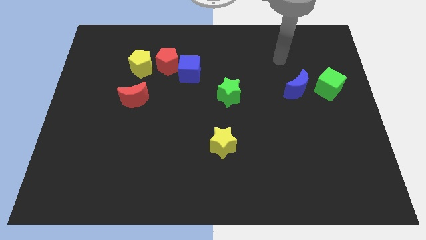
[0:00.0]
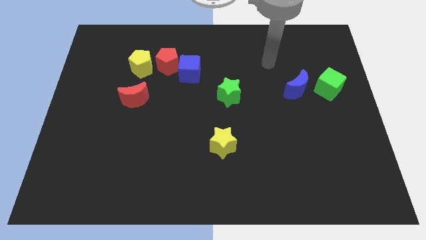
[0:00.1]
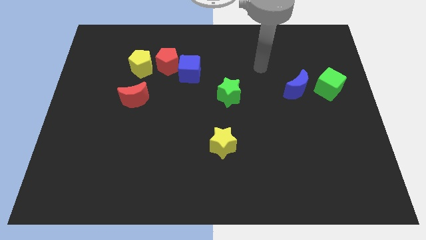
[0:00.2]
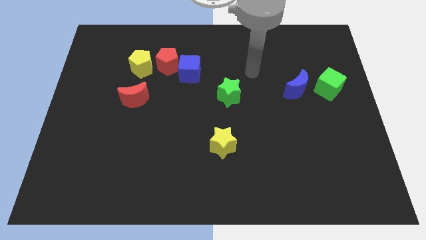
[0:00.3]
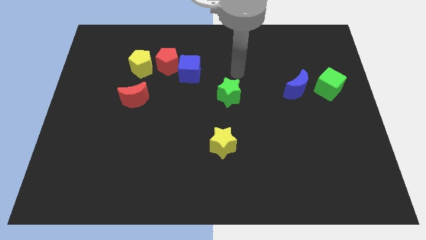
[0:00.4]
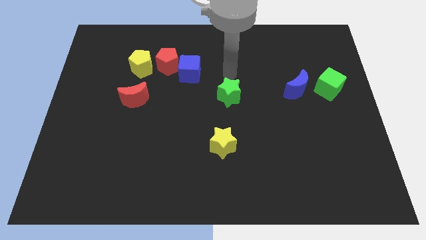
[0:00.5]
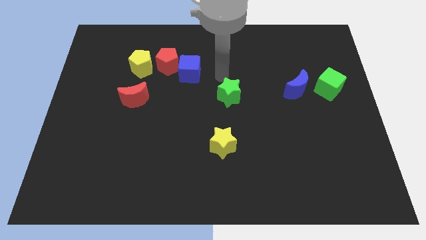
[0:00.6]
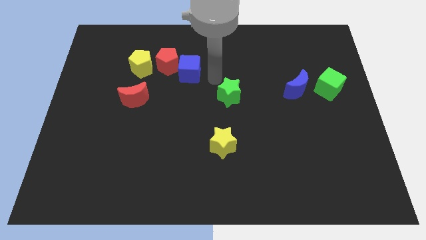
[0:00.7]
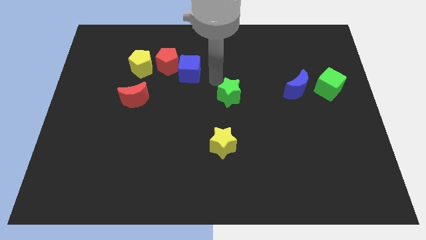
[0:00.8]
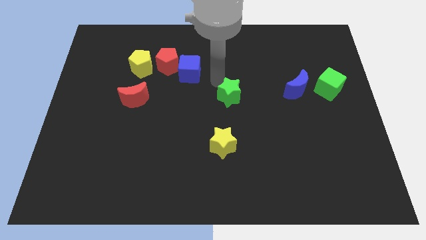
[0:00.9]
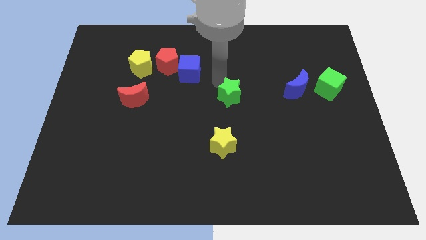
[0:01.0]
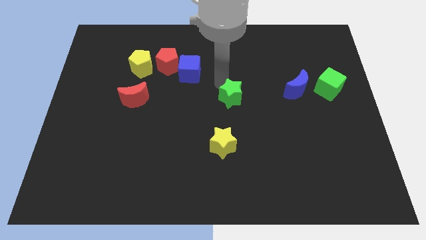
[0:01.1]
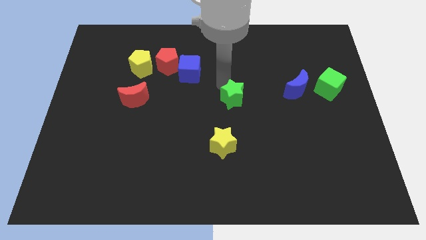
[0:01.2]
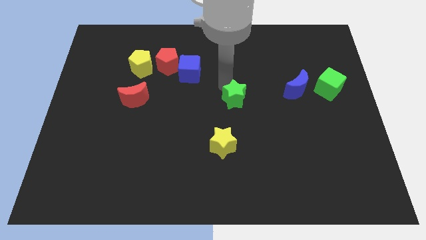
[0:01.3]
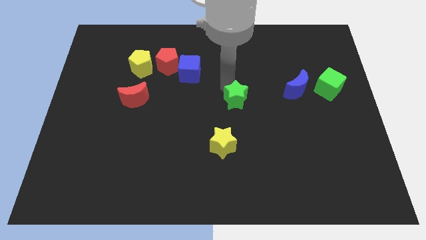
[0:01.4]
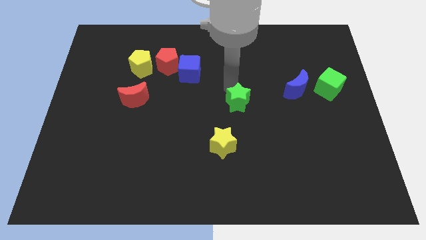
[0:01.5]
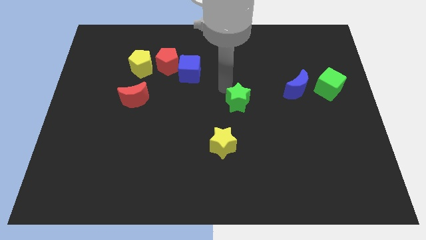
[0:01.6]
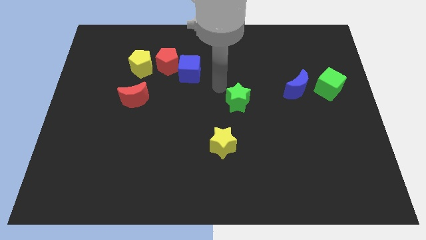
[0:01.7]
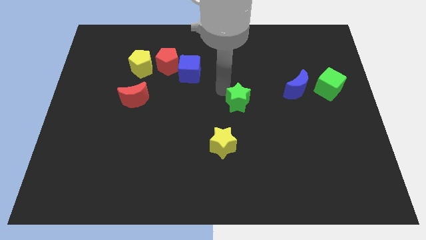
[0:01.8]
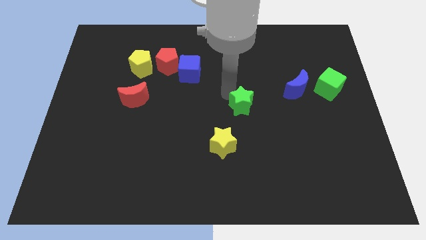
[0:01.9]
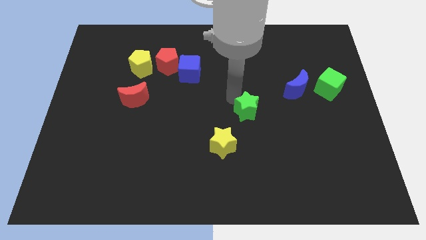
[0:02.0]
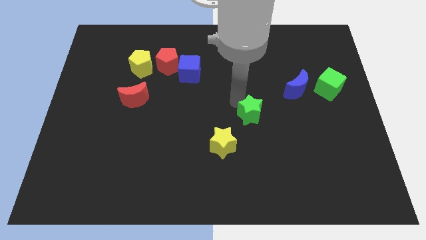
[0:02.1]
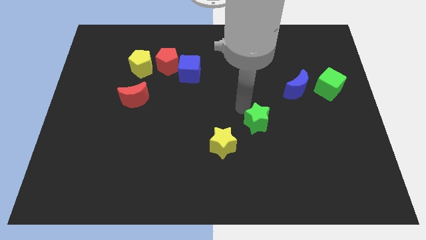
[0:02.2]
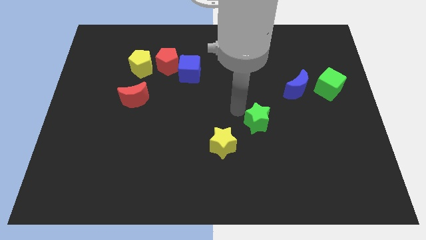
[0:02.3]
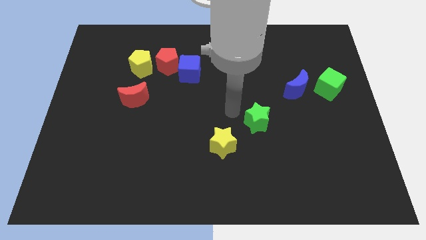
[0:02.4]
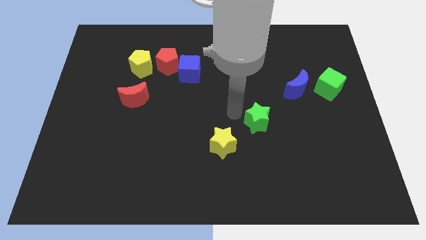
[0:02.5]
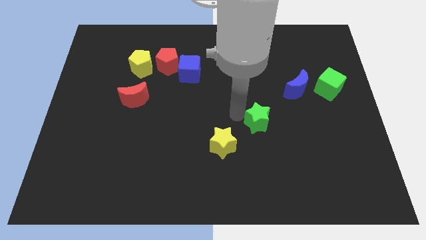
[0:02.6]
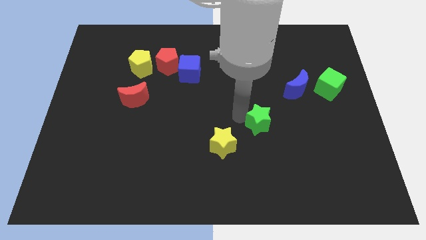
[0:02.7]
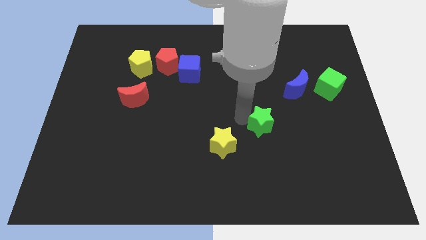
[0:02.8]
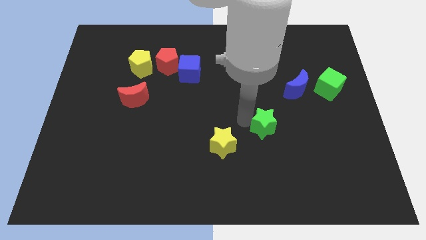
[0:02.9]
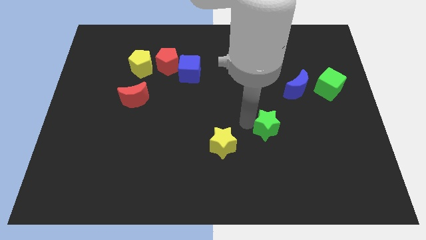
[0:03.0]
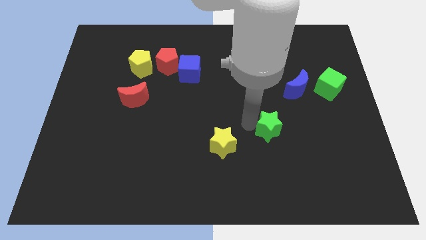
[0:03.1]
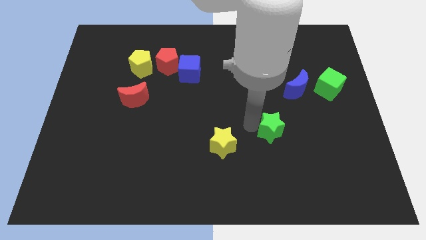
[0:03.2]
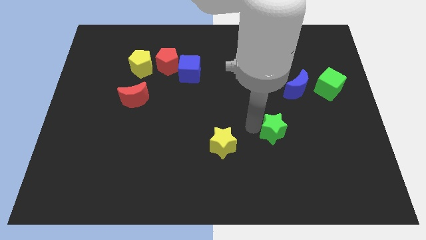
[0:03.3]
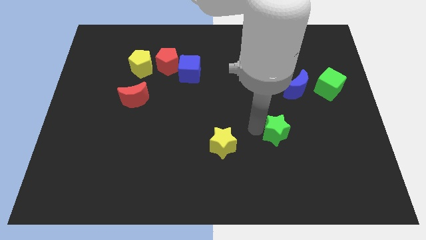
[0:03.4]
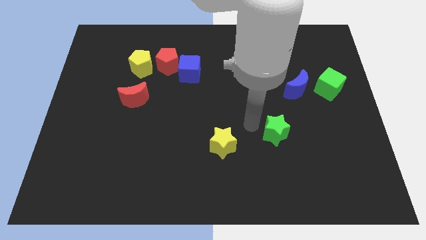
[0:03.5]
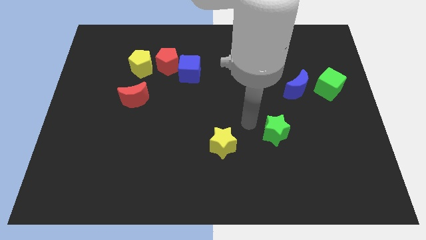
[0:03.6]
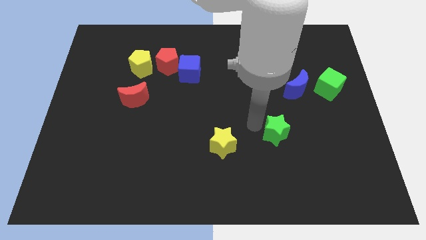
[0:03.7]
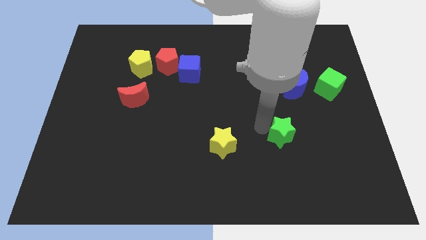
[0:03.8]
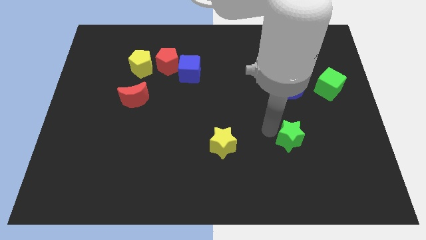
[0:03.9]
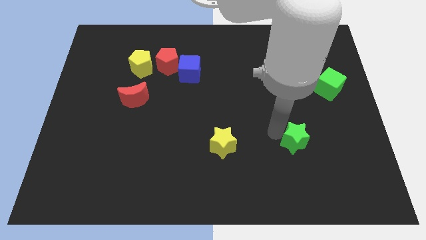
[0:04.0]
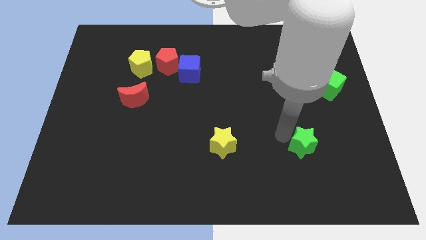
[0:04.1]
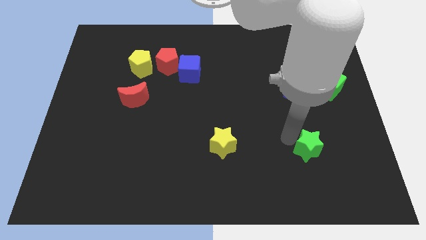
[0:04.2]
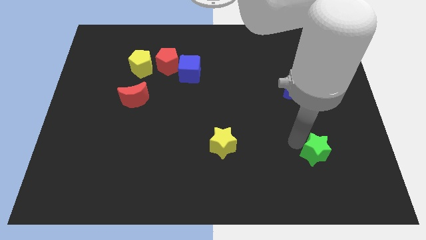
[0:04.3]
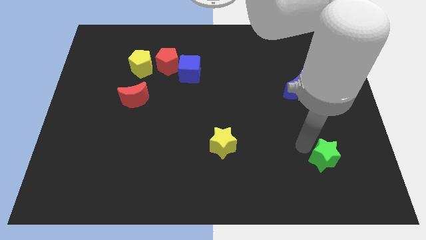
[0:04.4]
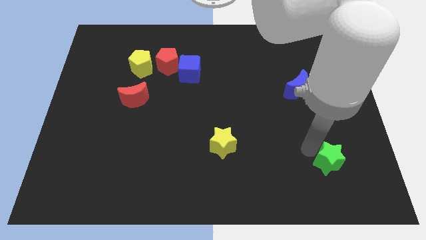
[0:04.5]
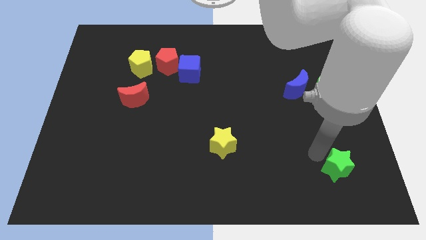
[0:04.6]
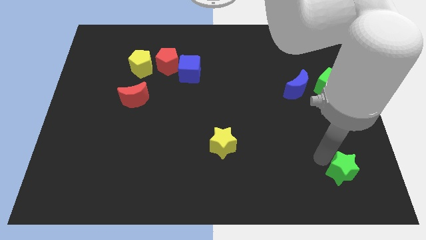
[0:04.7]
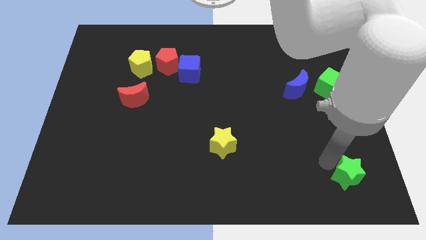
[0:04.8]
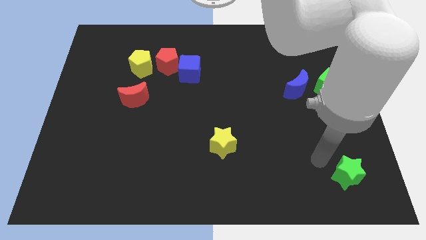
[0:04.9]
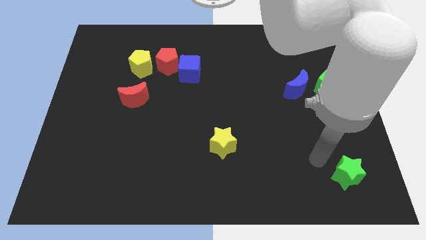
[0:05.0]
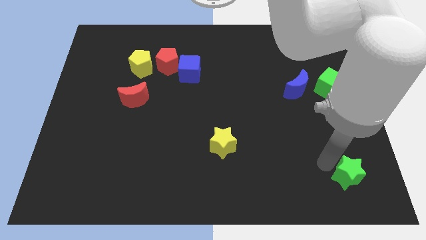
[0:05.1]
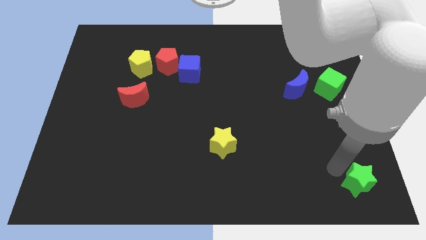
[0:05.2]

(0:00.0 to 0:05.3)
move the green star to the bottom right corner

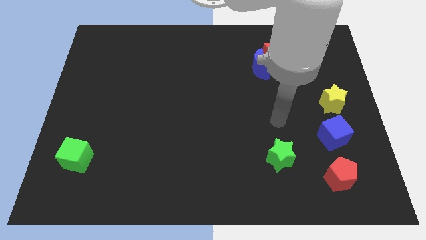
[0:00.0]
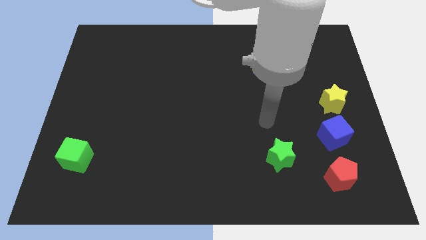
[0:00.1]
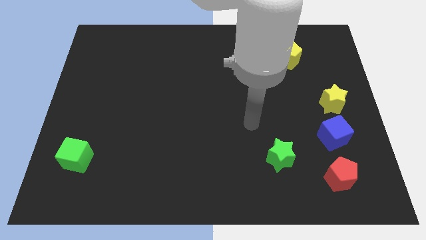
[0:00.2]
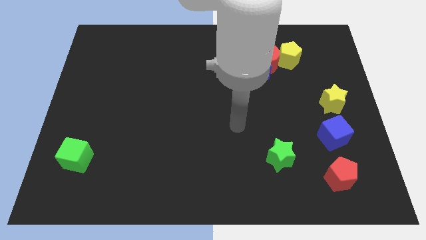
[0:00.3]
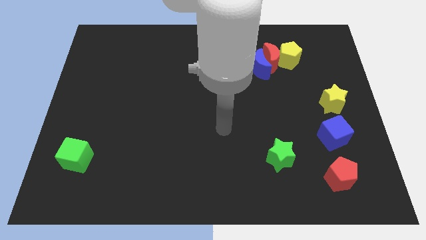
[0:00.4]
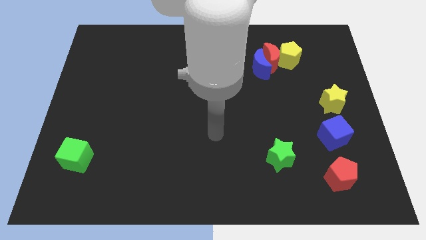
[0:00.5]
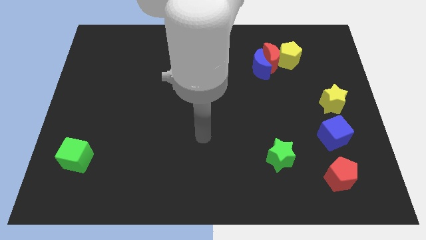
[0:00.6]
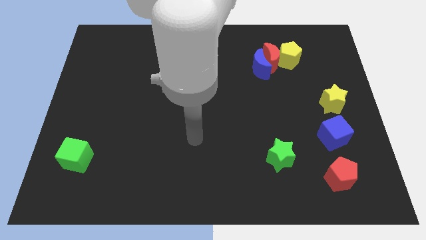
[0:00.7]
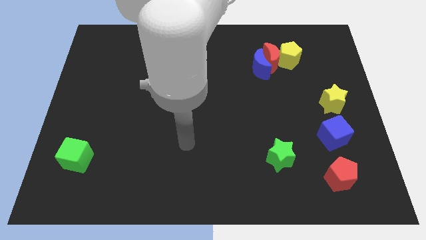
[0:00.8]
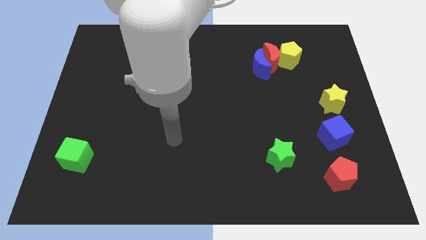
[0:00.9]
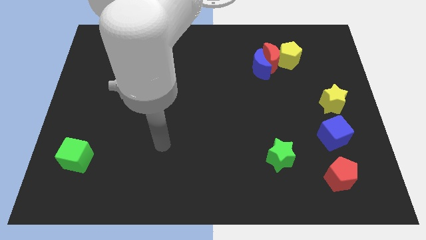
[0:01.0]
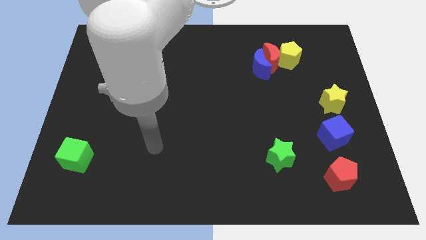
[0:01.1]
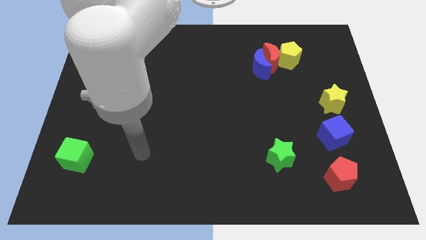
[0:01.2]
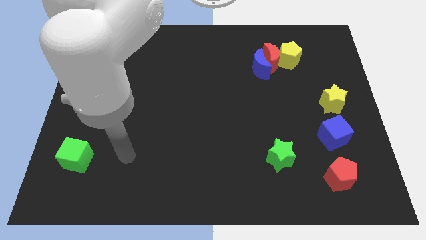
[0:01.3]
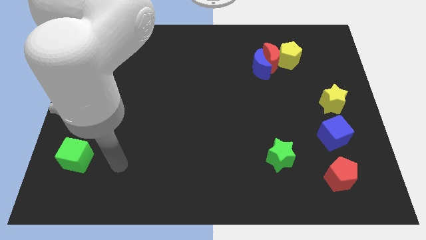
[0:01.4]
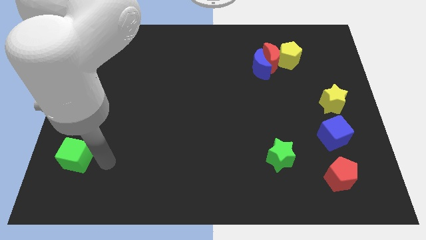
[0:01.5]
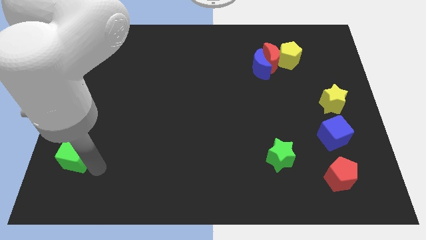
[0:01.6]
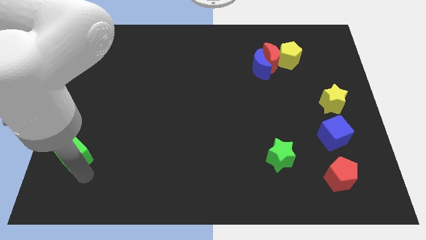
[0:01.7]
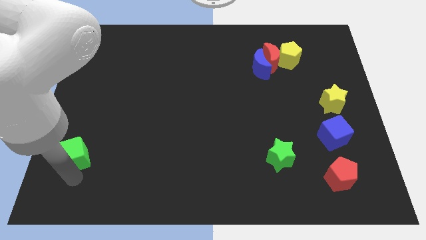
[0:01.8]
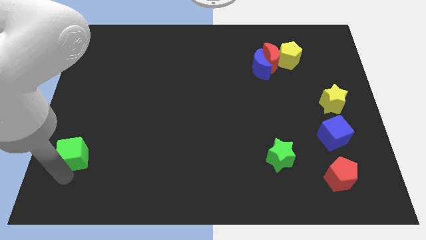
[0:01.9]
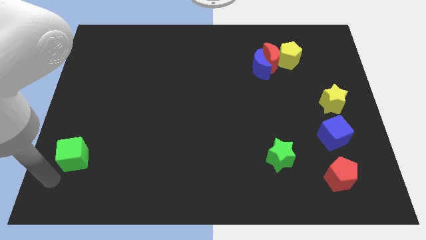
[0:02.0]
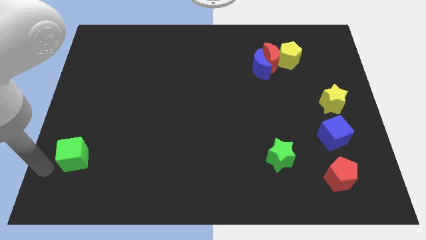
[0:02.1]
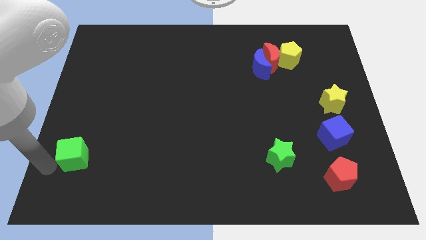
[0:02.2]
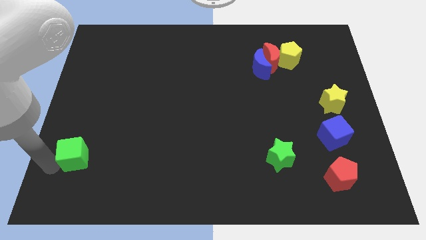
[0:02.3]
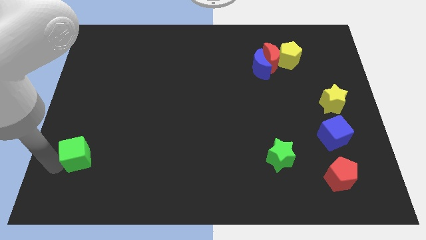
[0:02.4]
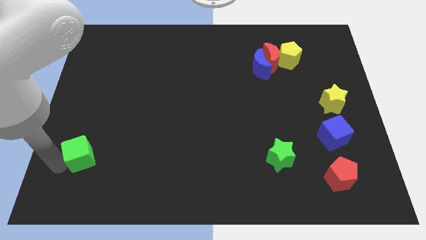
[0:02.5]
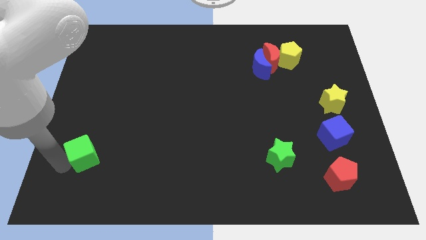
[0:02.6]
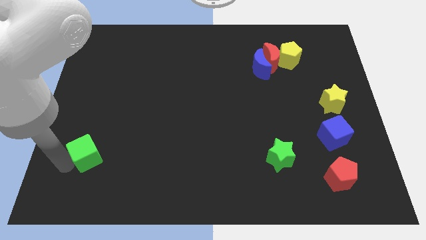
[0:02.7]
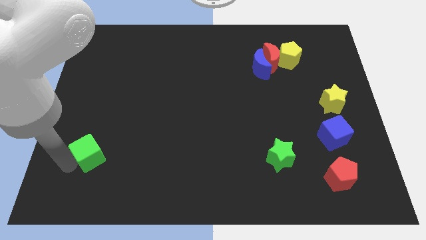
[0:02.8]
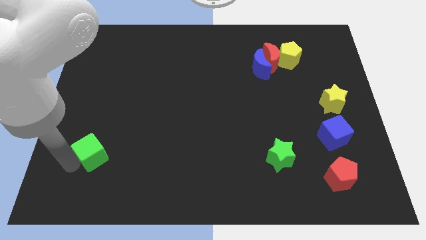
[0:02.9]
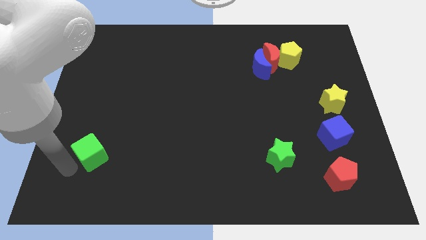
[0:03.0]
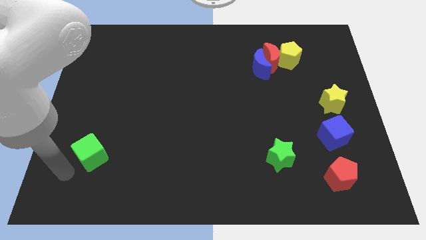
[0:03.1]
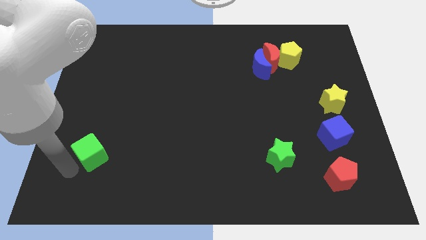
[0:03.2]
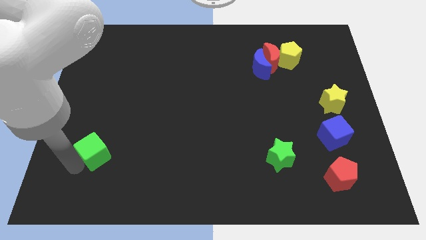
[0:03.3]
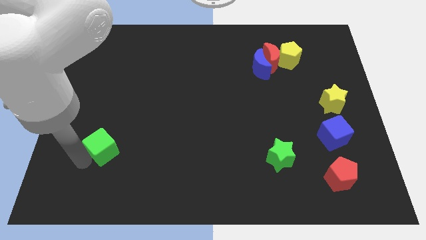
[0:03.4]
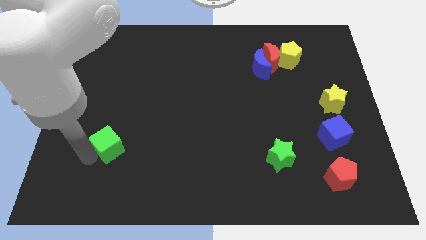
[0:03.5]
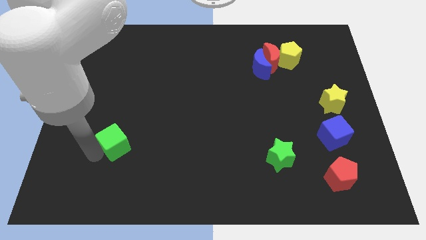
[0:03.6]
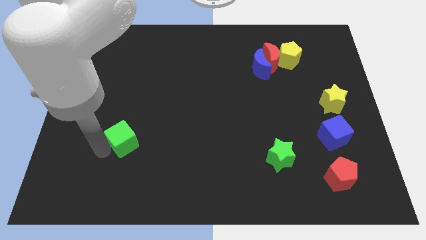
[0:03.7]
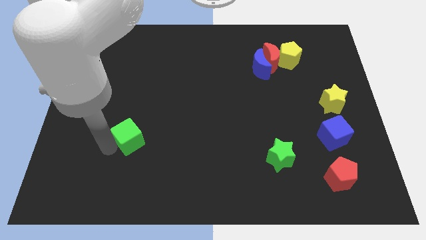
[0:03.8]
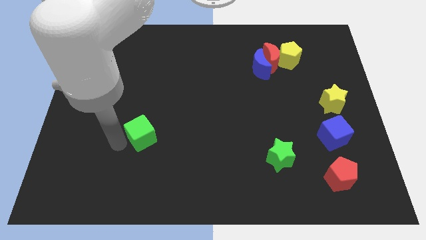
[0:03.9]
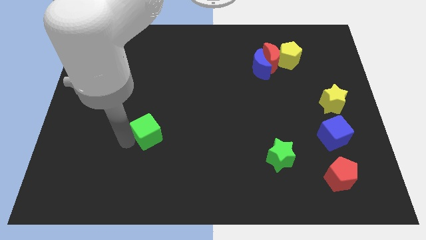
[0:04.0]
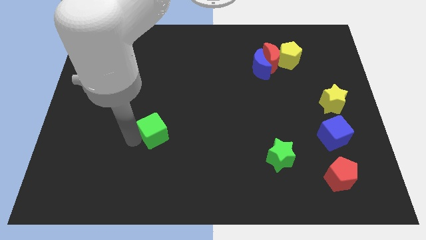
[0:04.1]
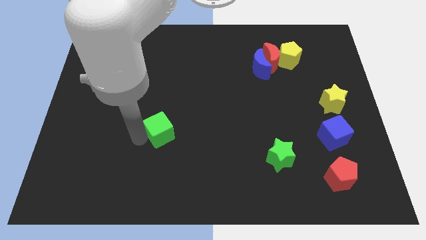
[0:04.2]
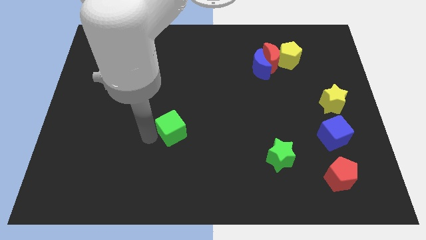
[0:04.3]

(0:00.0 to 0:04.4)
move the green cube to the middle
